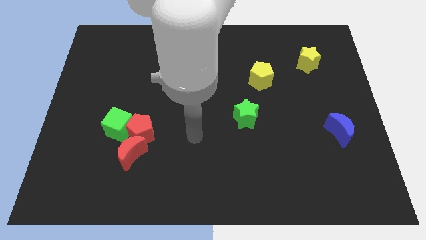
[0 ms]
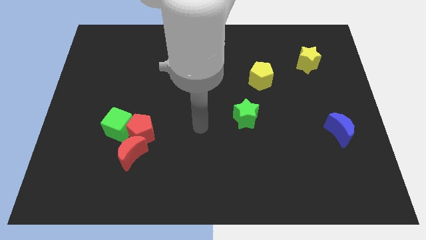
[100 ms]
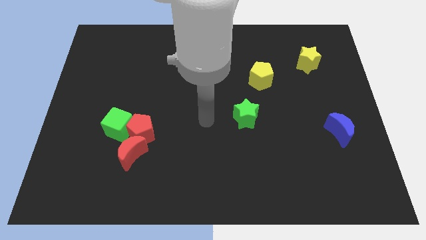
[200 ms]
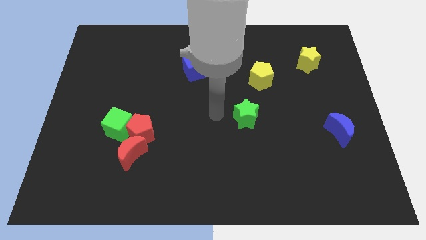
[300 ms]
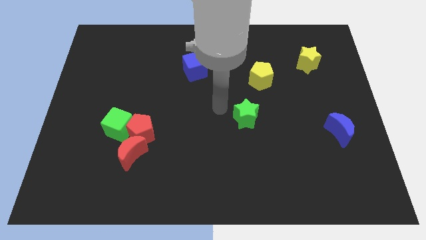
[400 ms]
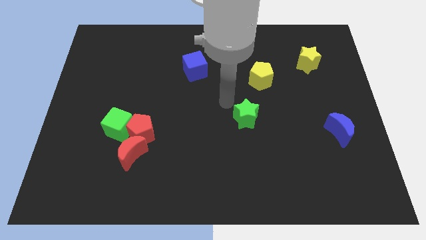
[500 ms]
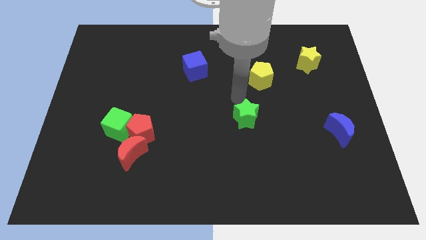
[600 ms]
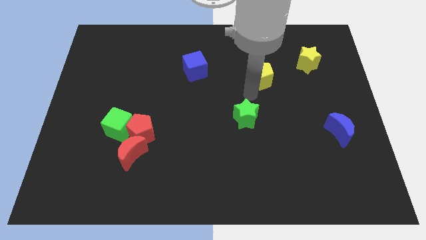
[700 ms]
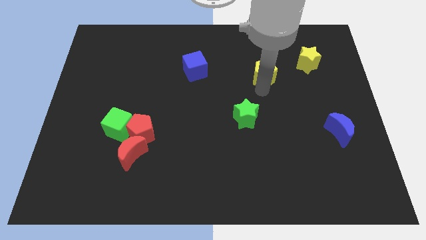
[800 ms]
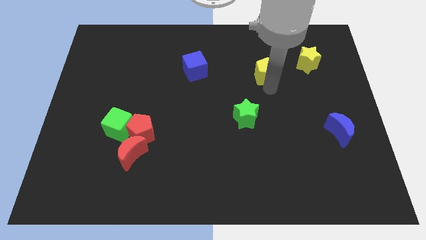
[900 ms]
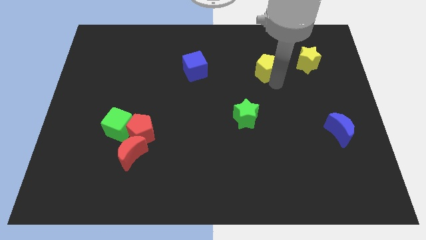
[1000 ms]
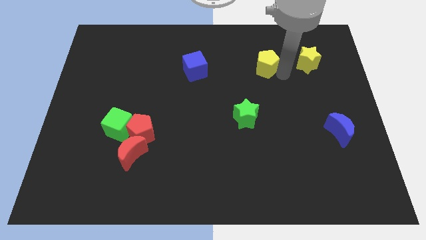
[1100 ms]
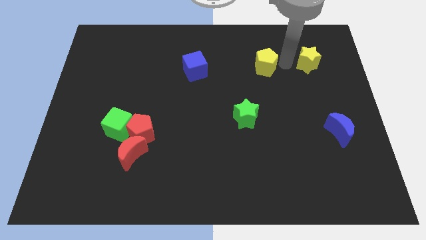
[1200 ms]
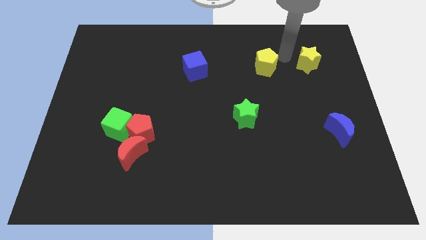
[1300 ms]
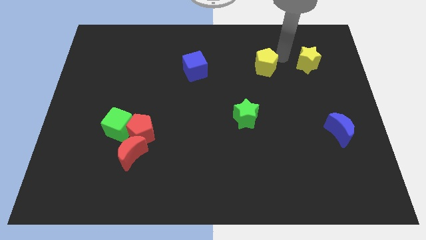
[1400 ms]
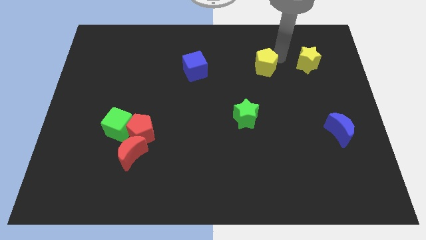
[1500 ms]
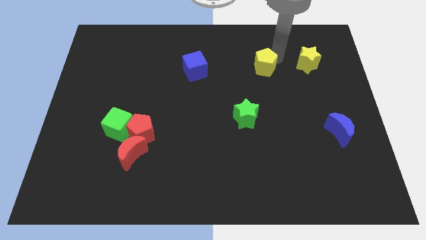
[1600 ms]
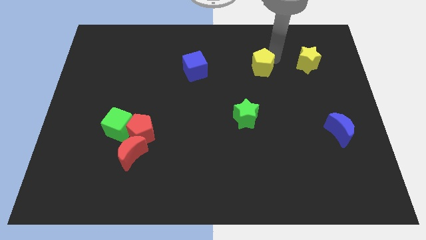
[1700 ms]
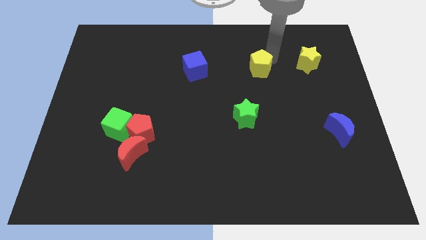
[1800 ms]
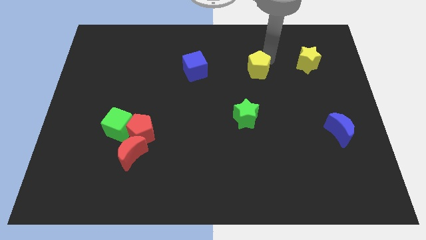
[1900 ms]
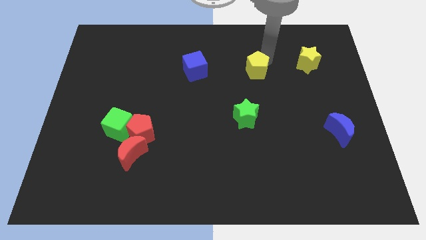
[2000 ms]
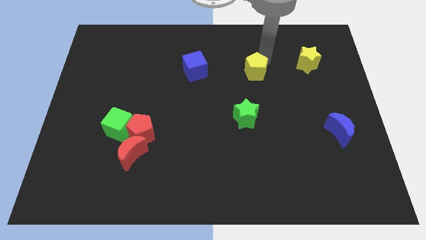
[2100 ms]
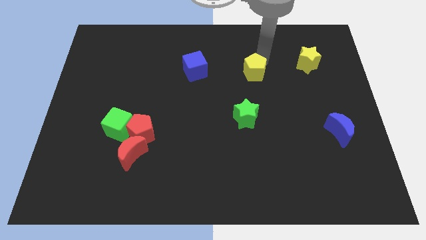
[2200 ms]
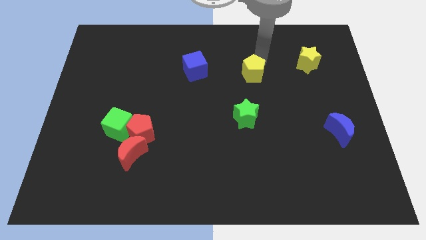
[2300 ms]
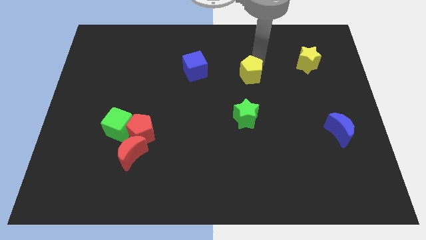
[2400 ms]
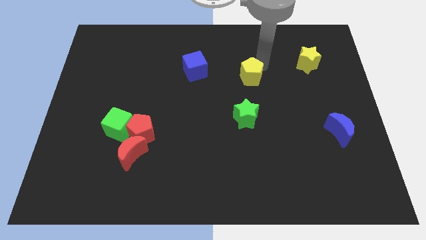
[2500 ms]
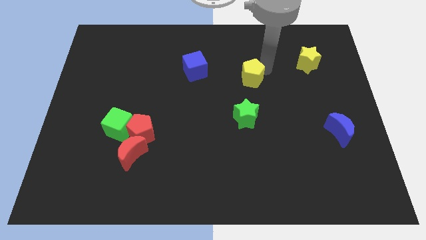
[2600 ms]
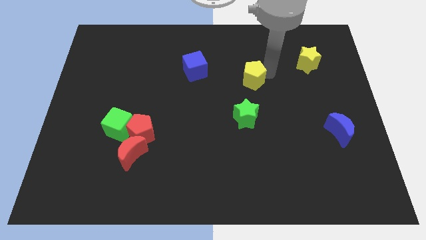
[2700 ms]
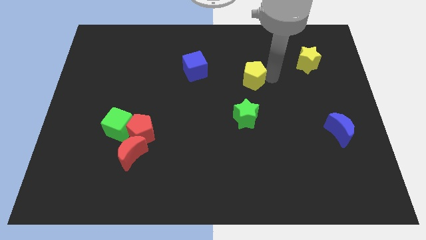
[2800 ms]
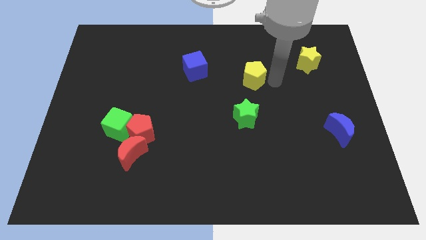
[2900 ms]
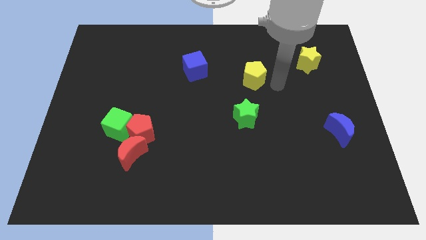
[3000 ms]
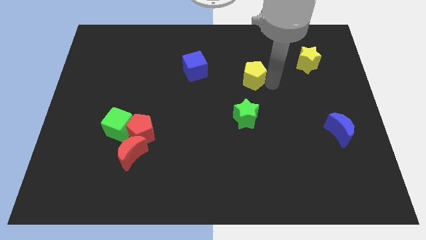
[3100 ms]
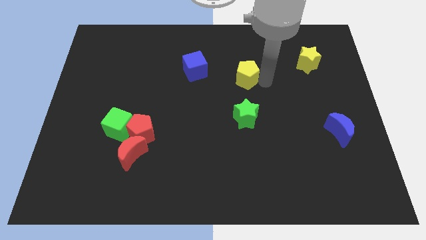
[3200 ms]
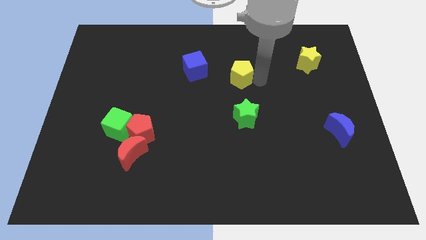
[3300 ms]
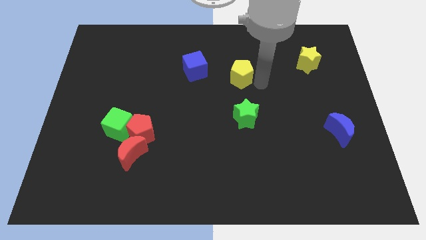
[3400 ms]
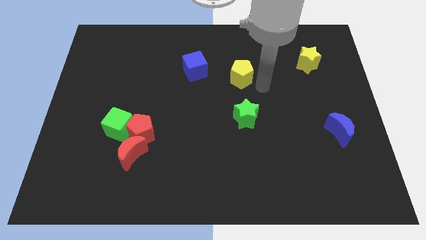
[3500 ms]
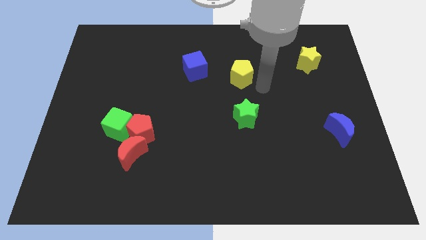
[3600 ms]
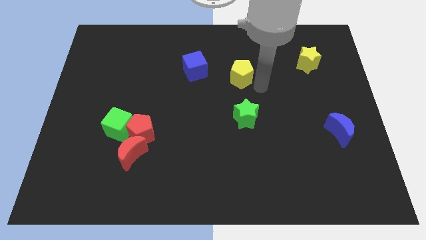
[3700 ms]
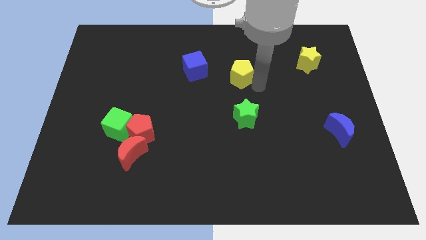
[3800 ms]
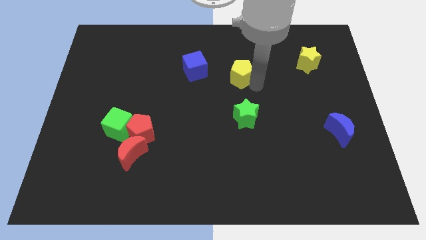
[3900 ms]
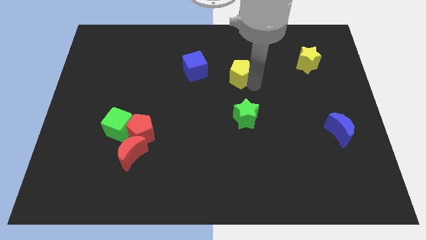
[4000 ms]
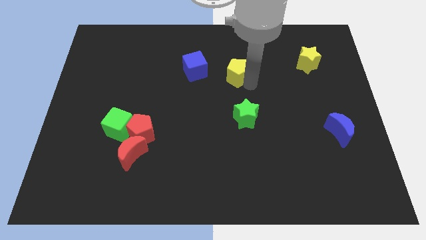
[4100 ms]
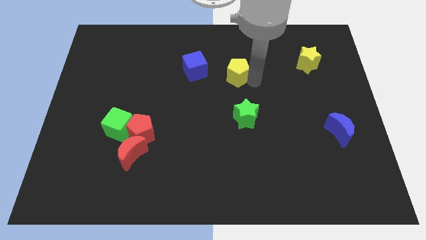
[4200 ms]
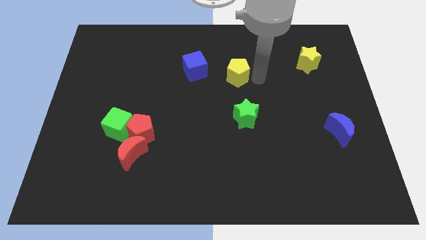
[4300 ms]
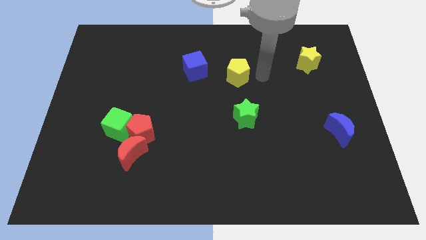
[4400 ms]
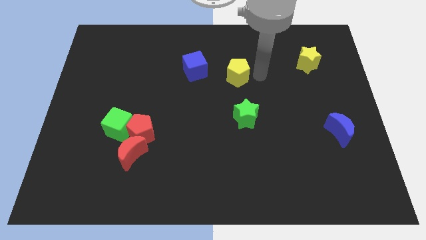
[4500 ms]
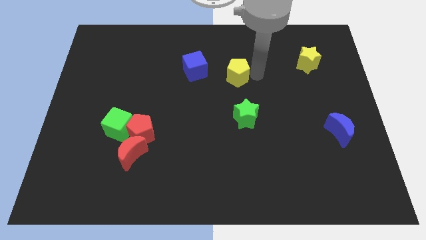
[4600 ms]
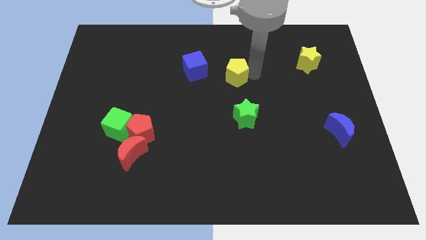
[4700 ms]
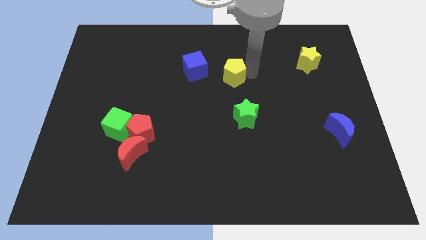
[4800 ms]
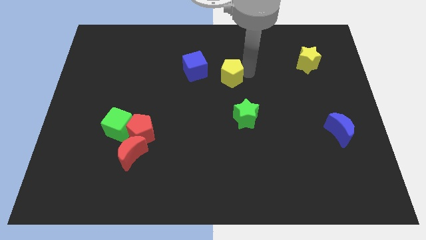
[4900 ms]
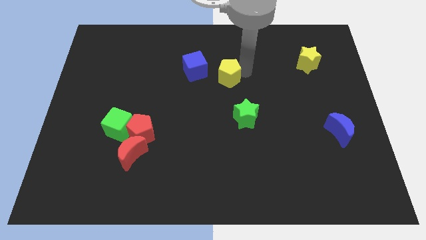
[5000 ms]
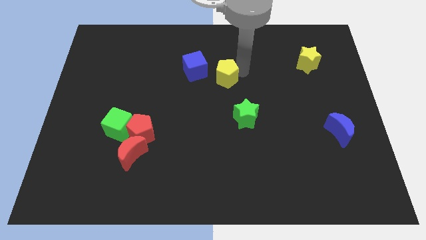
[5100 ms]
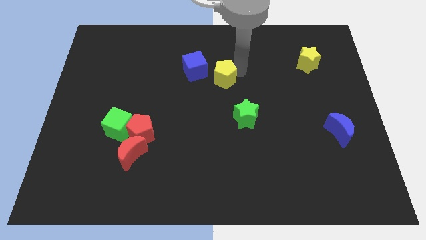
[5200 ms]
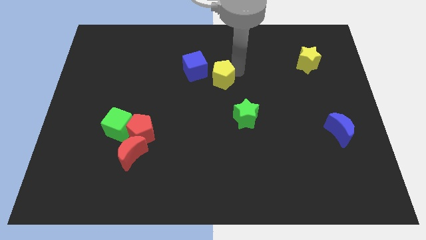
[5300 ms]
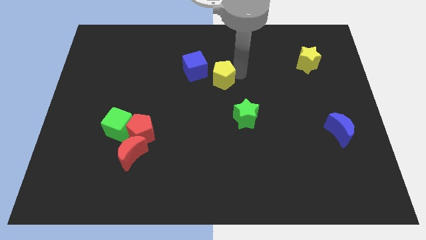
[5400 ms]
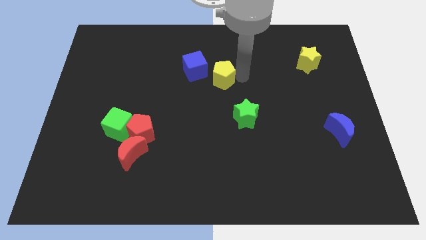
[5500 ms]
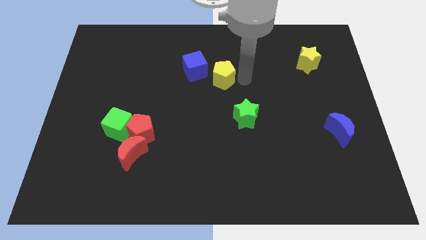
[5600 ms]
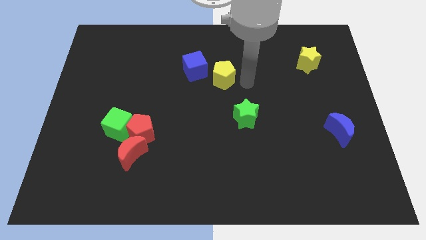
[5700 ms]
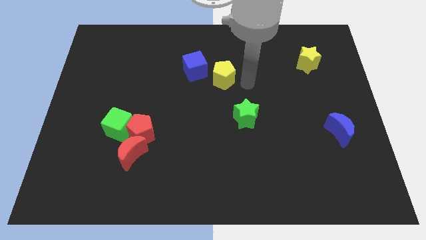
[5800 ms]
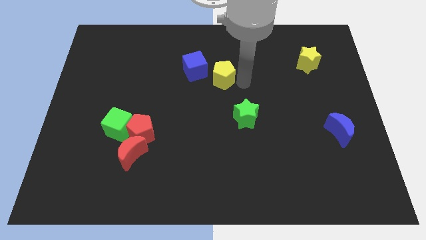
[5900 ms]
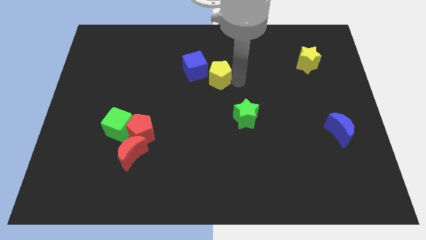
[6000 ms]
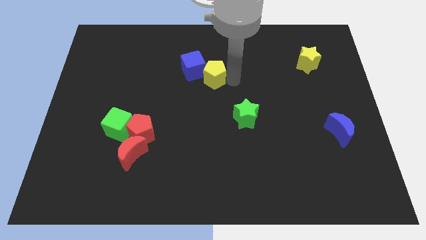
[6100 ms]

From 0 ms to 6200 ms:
push the yellow pentagon towards the blue cube
